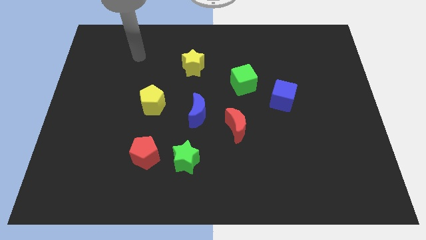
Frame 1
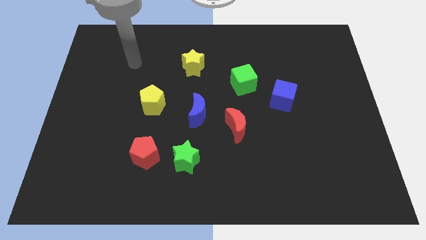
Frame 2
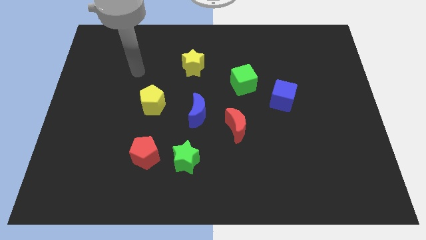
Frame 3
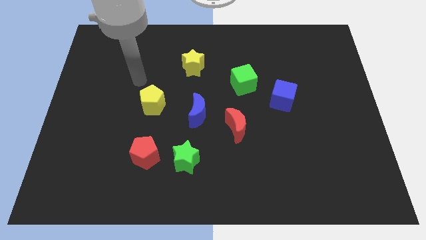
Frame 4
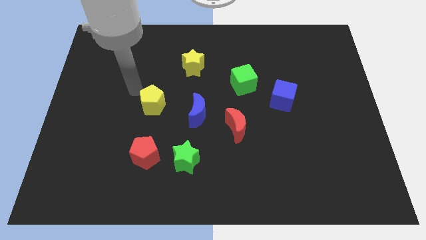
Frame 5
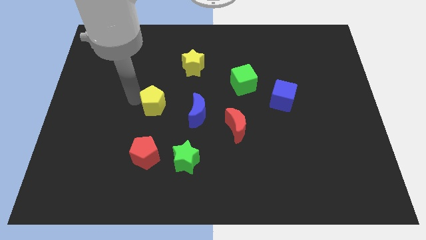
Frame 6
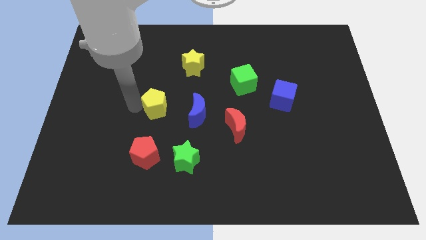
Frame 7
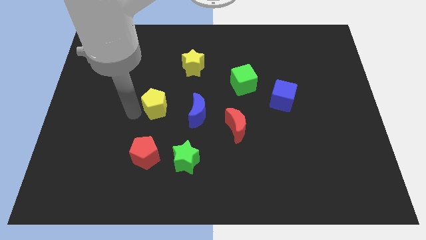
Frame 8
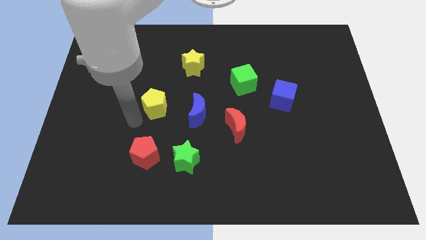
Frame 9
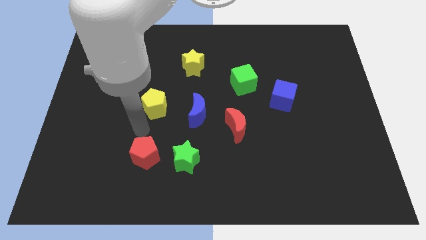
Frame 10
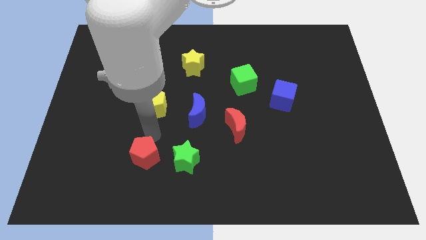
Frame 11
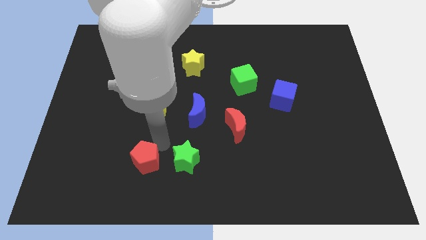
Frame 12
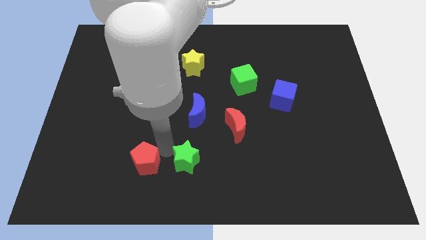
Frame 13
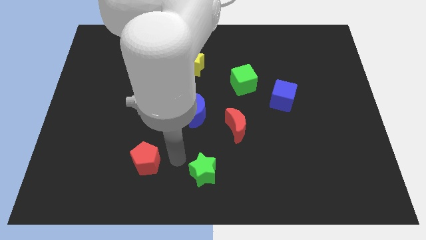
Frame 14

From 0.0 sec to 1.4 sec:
pull the red pentagon apart from the green star

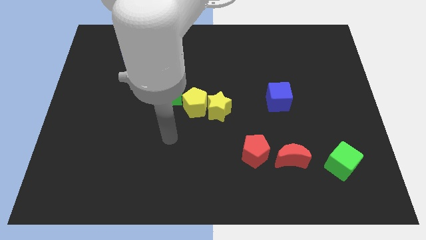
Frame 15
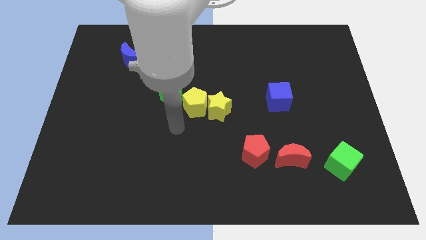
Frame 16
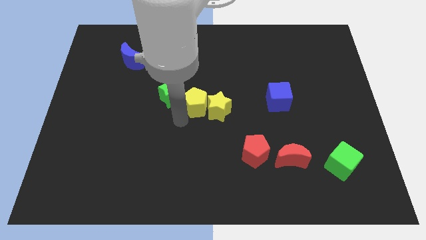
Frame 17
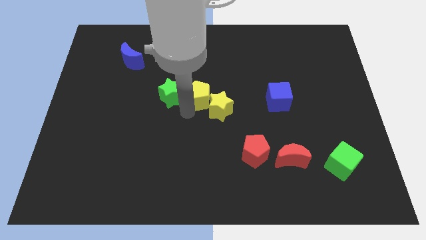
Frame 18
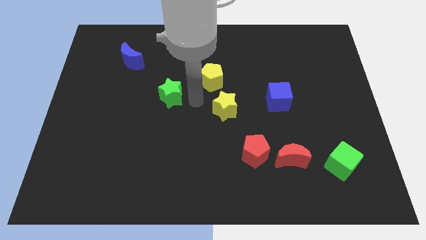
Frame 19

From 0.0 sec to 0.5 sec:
pull the yellow star apart from the yellow pentagon

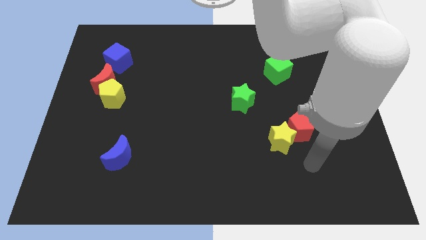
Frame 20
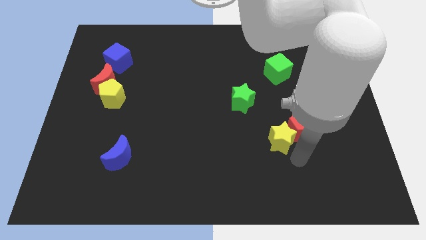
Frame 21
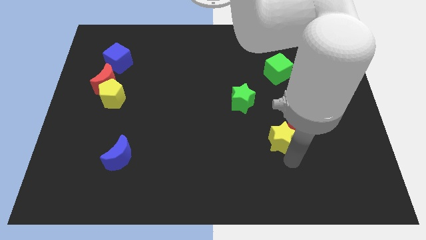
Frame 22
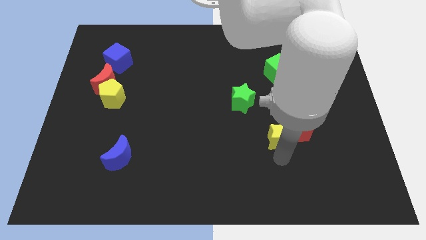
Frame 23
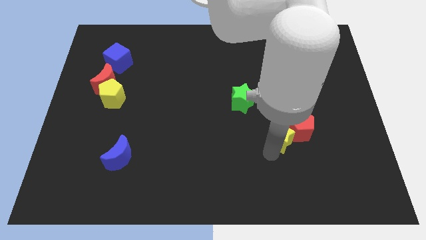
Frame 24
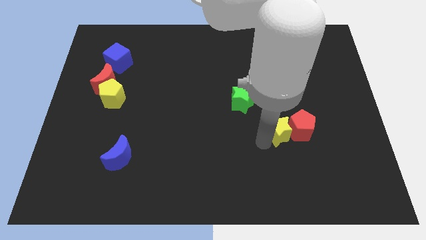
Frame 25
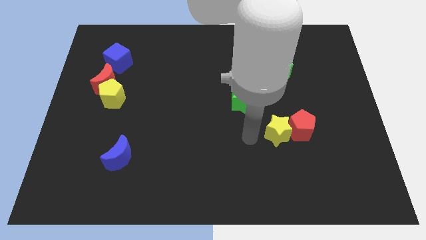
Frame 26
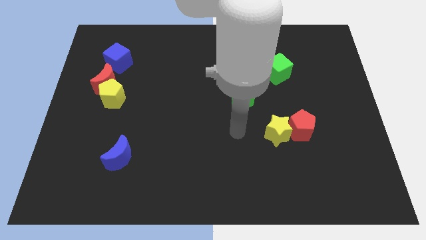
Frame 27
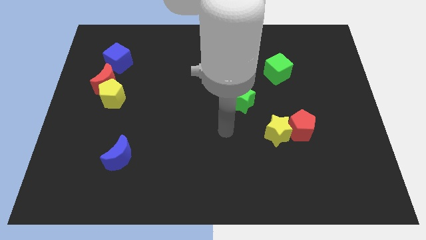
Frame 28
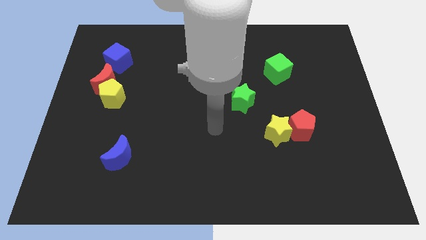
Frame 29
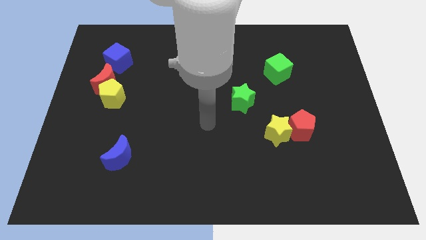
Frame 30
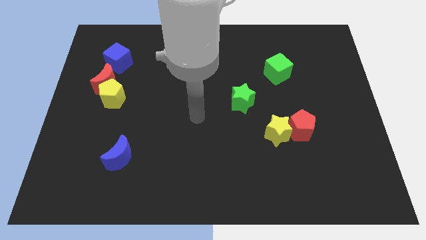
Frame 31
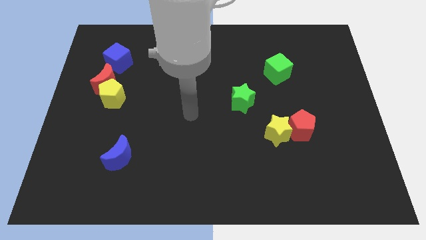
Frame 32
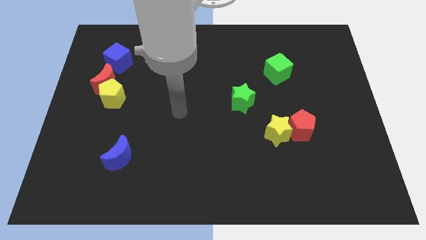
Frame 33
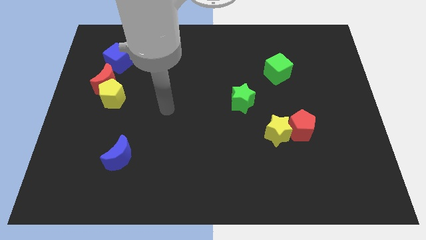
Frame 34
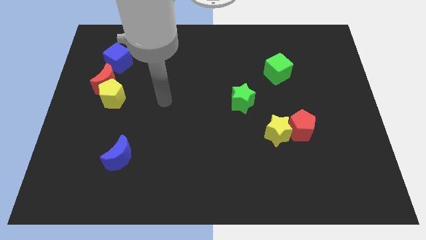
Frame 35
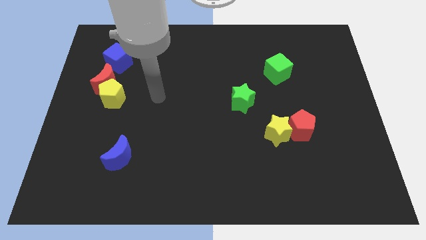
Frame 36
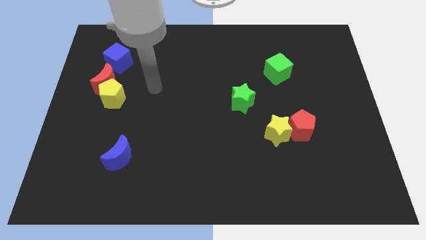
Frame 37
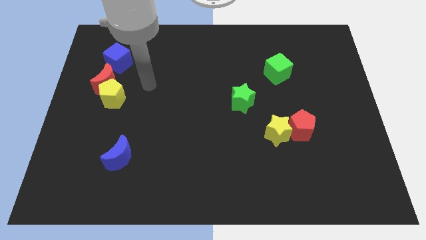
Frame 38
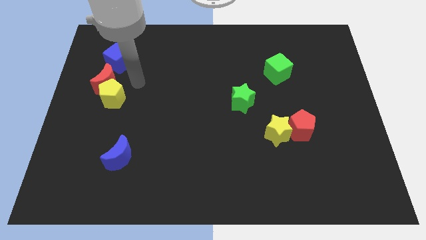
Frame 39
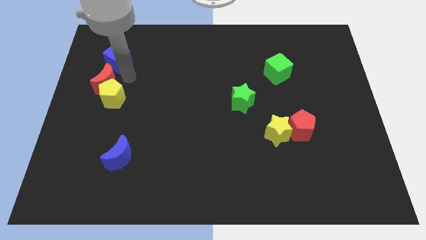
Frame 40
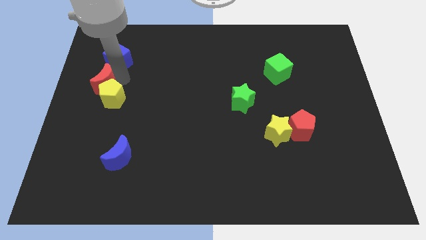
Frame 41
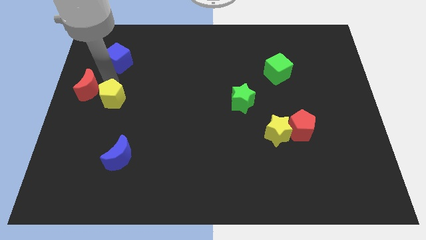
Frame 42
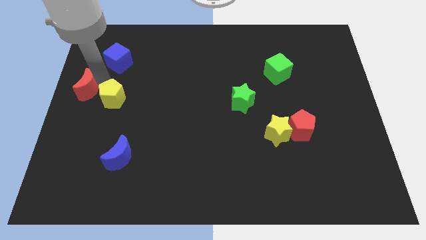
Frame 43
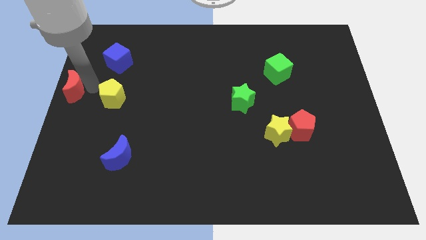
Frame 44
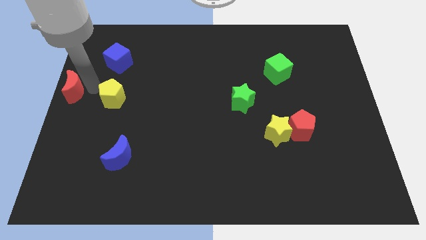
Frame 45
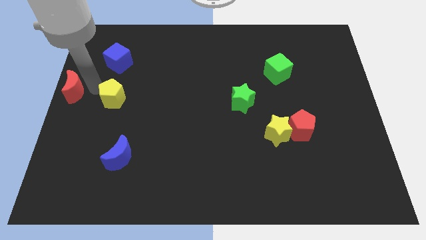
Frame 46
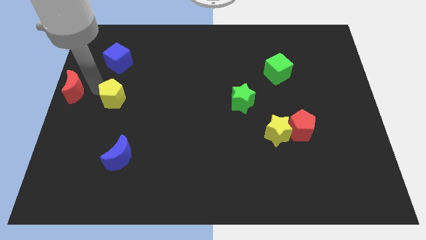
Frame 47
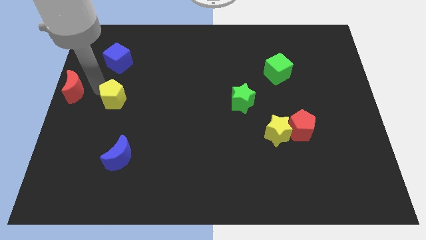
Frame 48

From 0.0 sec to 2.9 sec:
move the yellow pentagon away from the red moon

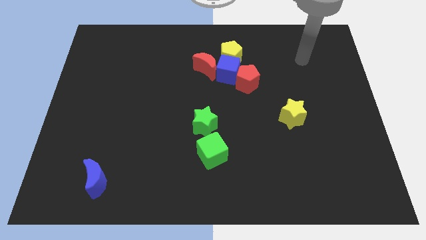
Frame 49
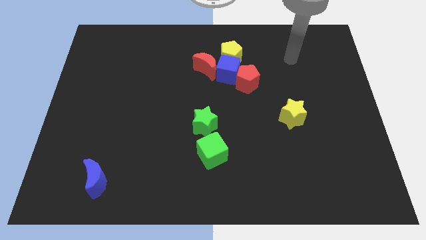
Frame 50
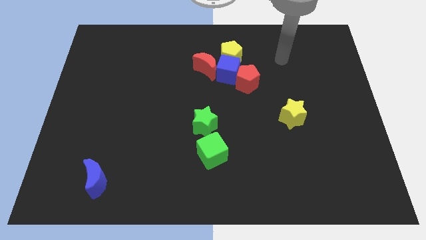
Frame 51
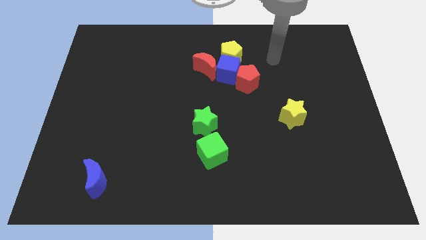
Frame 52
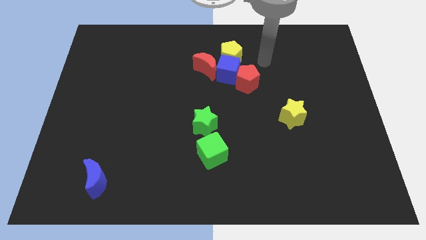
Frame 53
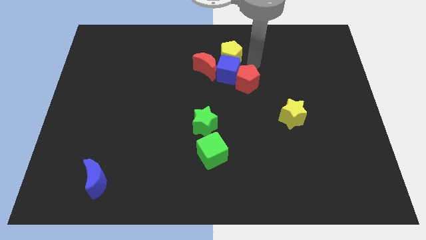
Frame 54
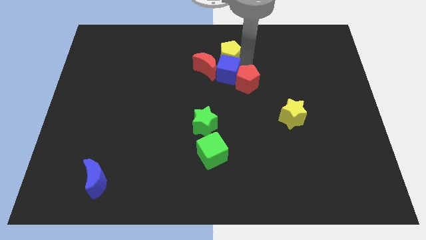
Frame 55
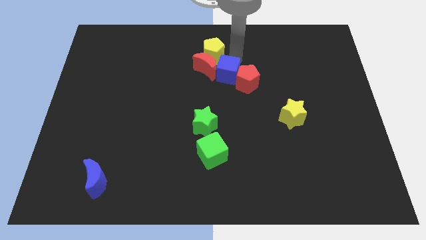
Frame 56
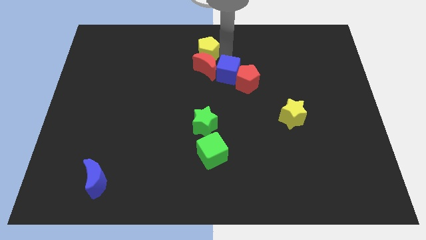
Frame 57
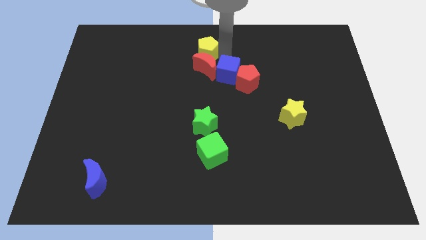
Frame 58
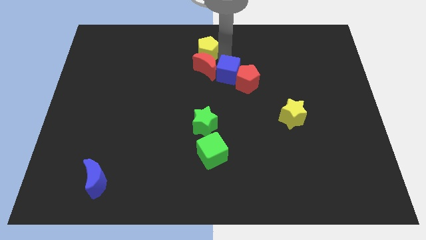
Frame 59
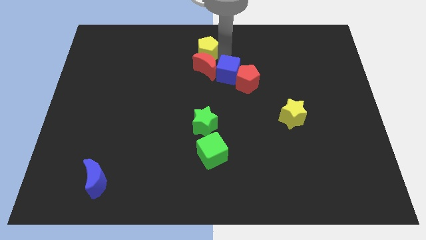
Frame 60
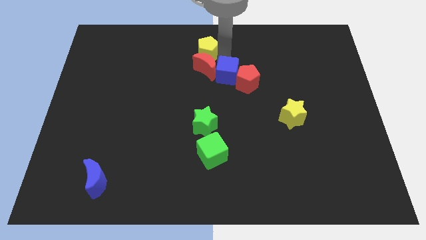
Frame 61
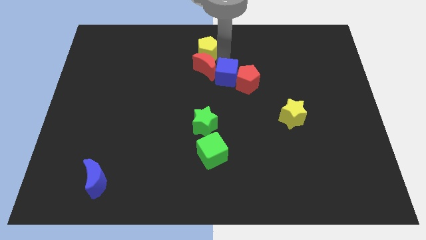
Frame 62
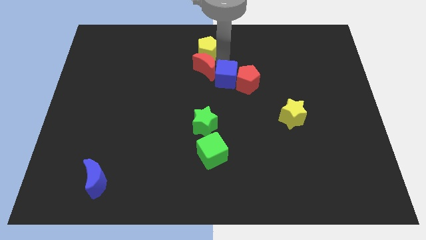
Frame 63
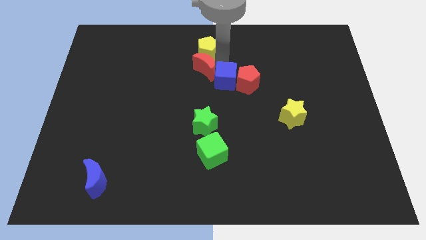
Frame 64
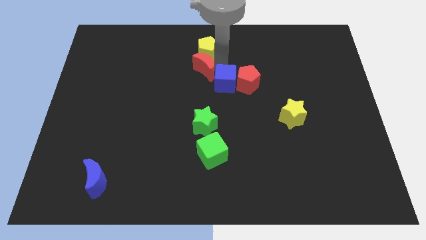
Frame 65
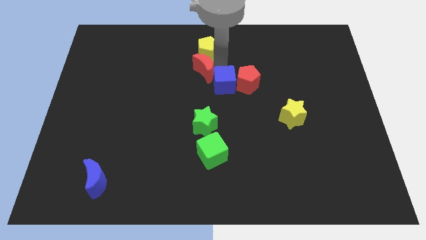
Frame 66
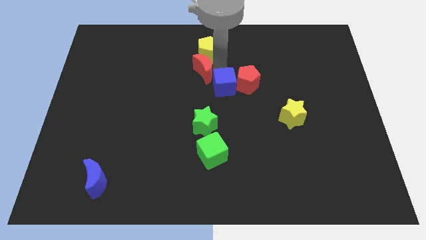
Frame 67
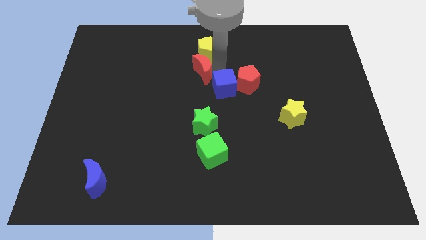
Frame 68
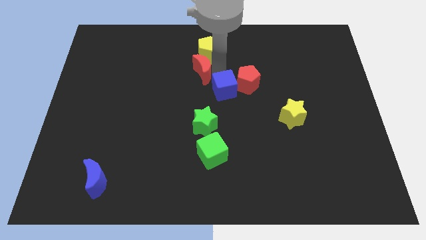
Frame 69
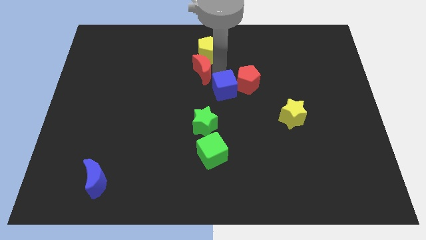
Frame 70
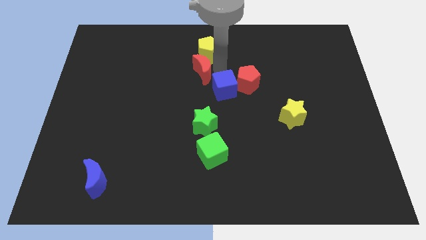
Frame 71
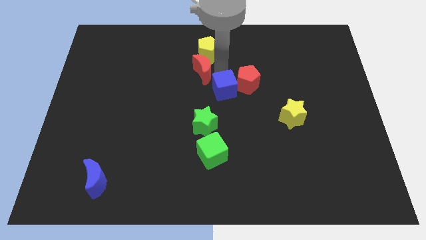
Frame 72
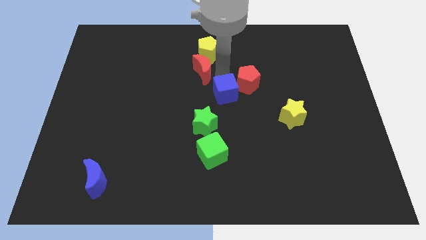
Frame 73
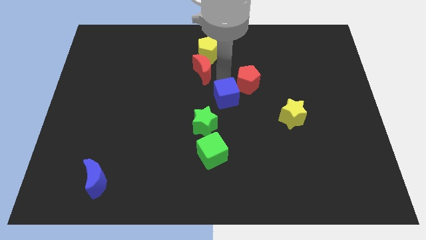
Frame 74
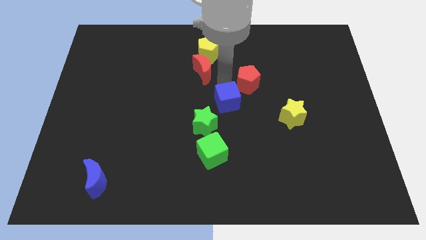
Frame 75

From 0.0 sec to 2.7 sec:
pull the blue cube apart from the clump

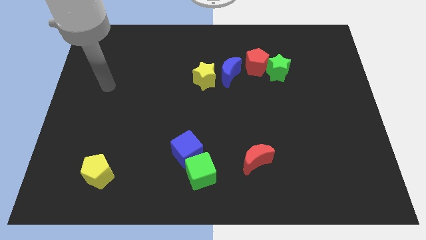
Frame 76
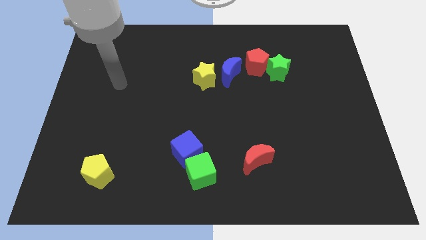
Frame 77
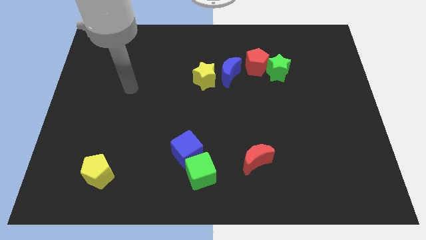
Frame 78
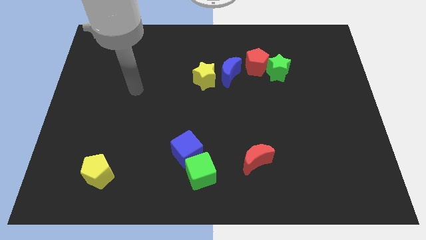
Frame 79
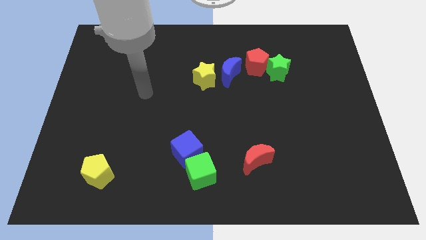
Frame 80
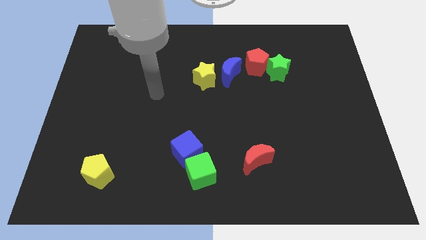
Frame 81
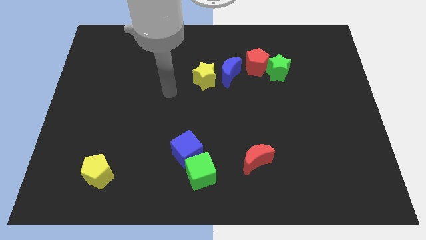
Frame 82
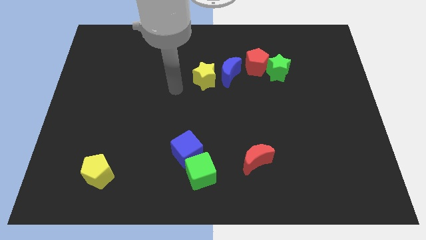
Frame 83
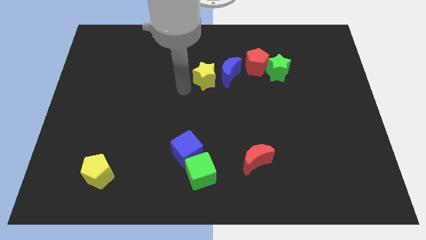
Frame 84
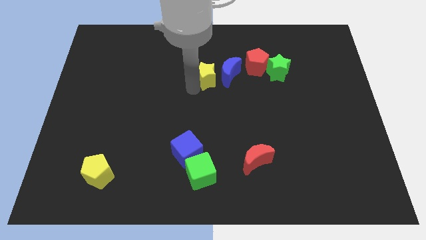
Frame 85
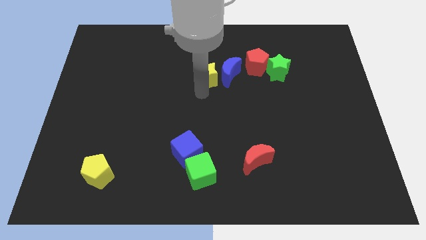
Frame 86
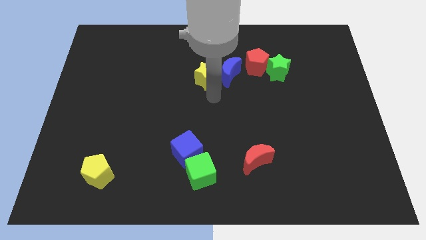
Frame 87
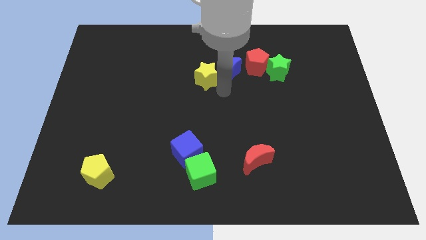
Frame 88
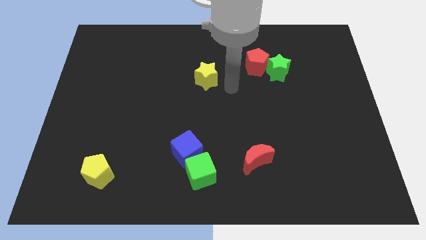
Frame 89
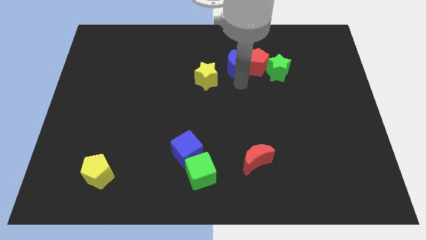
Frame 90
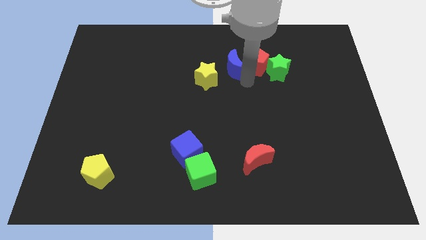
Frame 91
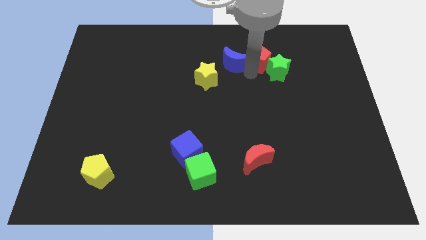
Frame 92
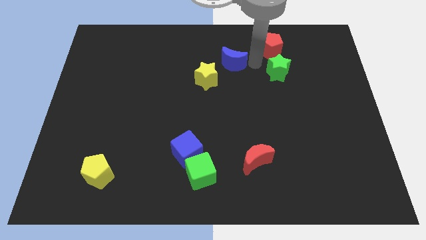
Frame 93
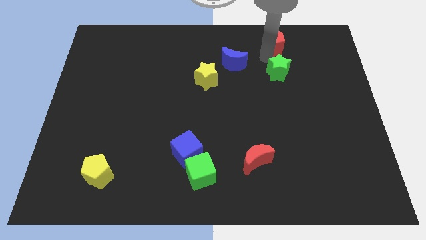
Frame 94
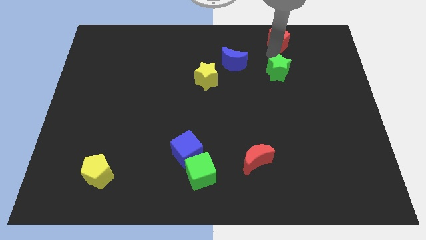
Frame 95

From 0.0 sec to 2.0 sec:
move the green star away from the red pentagon
